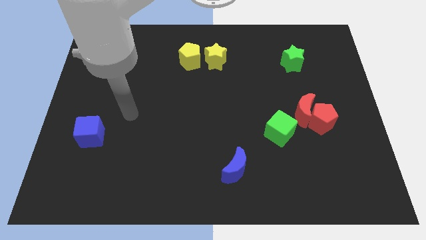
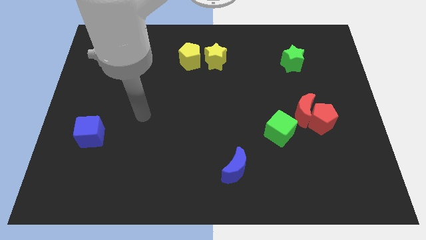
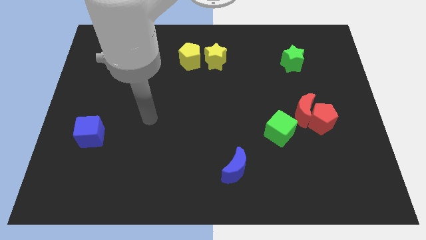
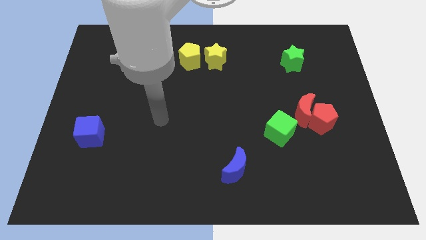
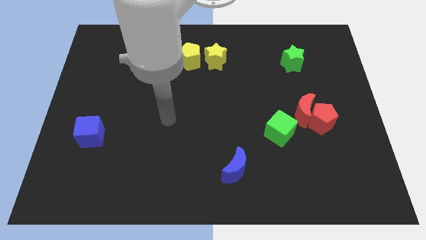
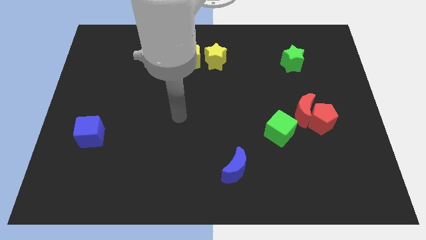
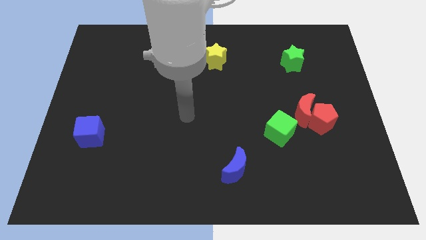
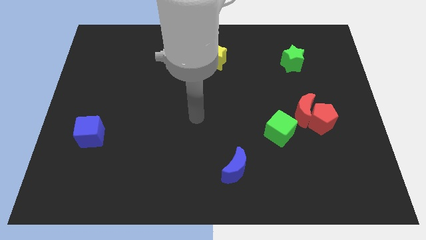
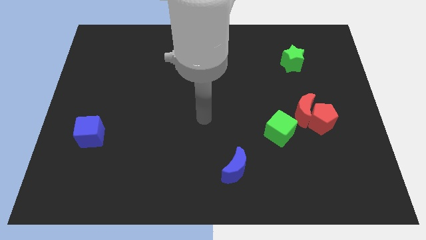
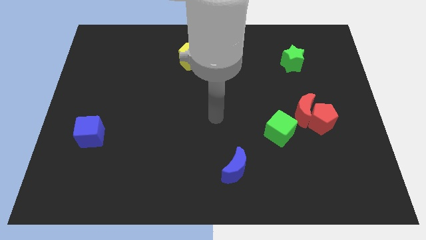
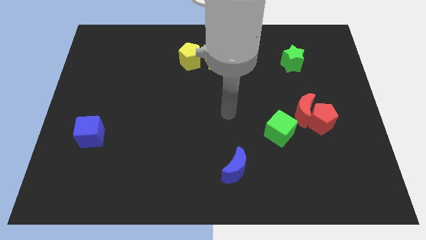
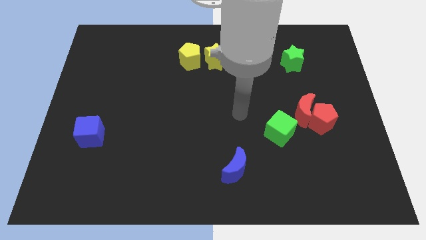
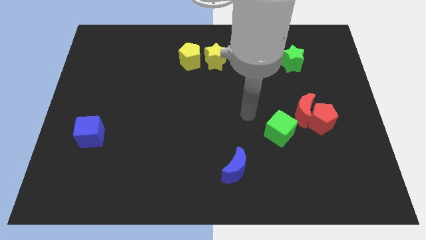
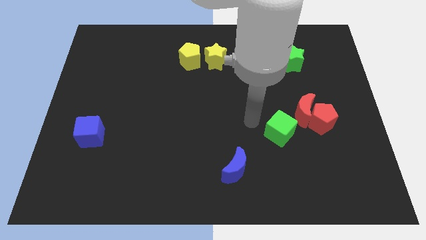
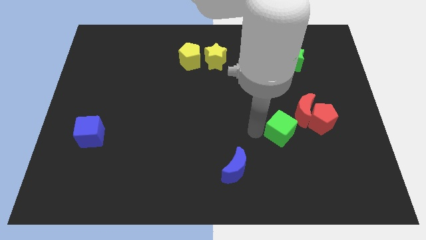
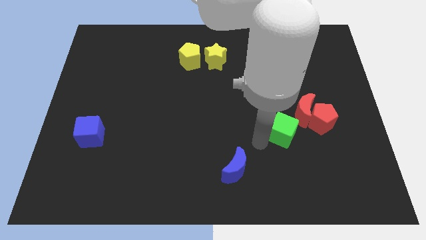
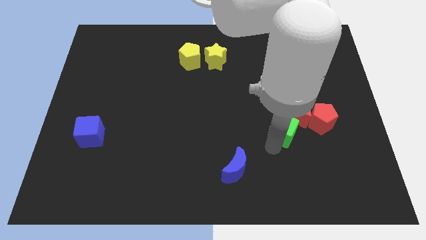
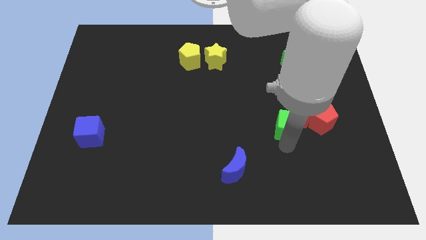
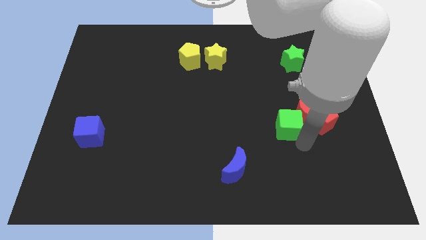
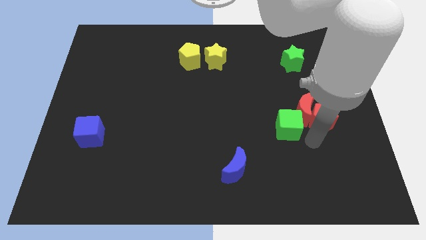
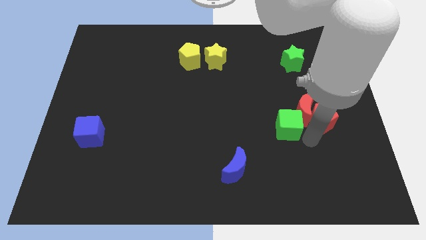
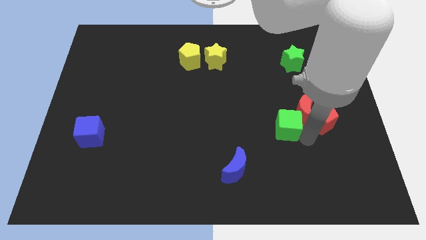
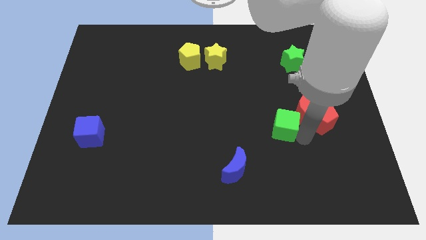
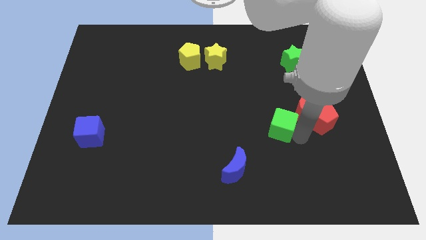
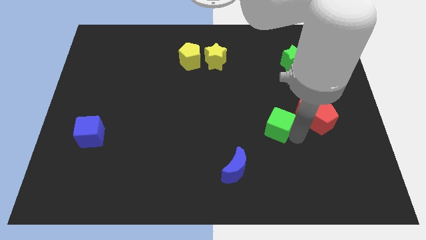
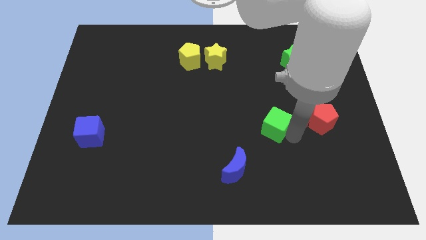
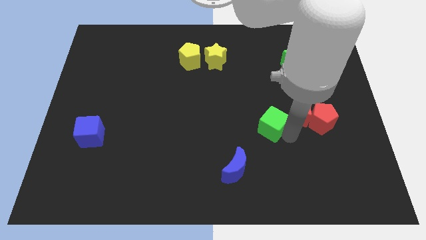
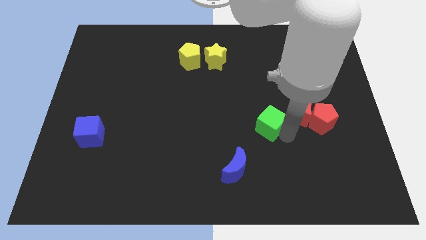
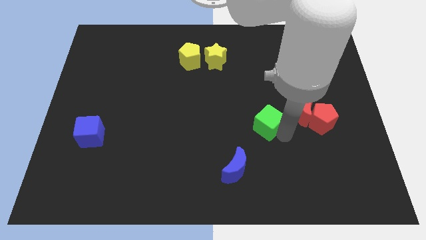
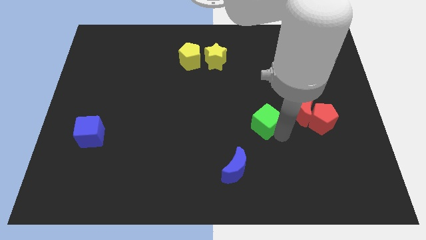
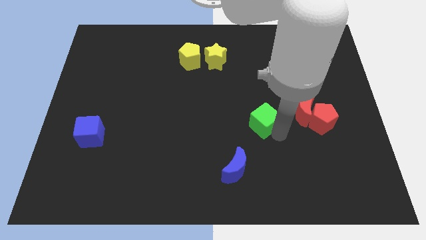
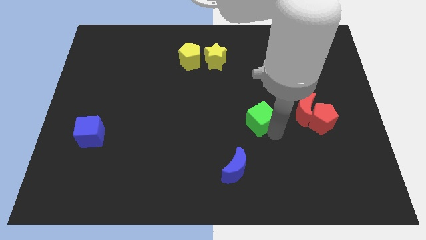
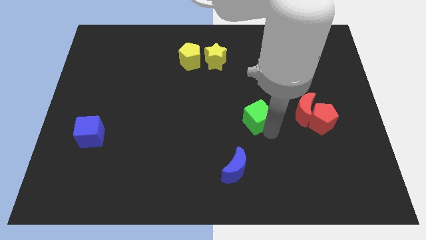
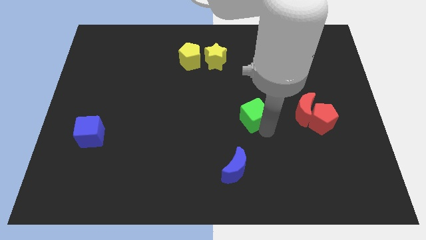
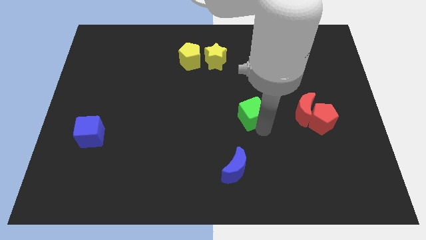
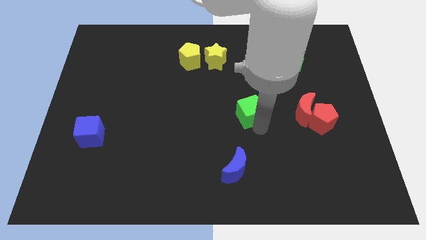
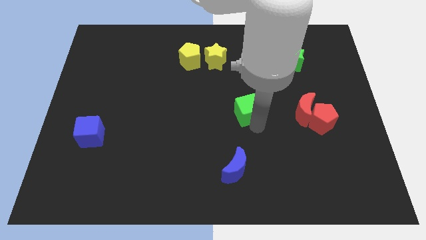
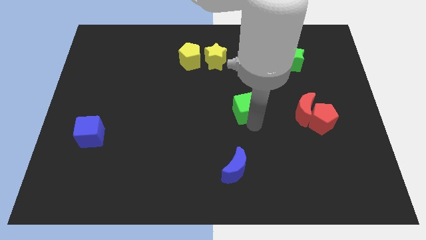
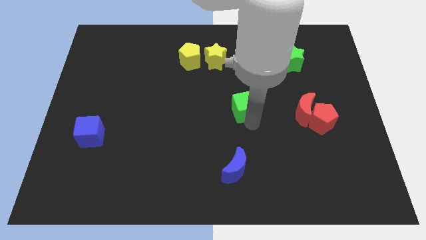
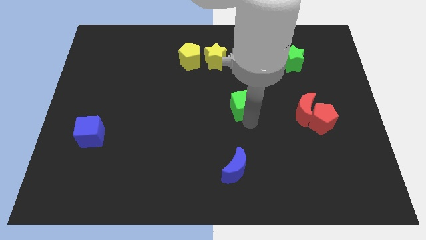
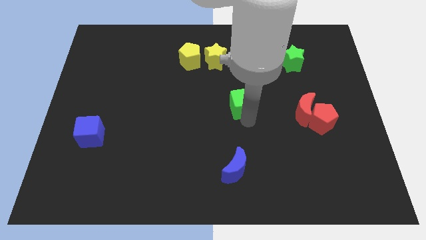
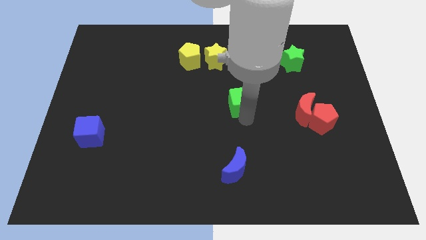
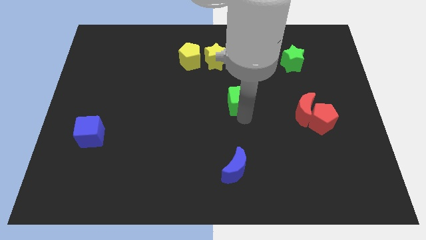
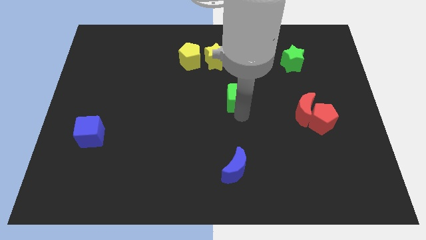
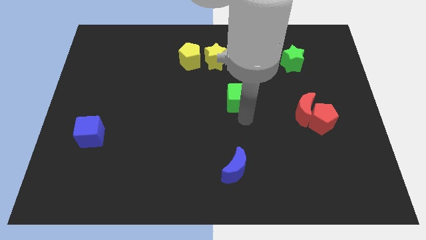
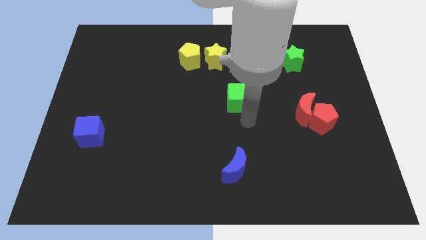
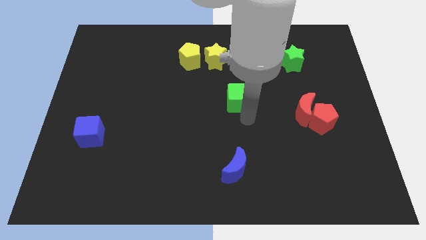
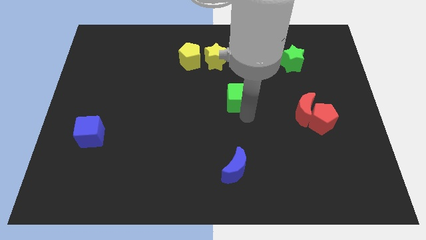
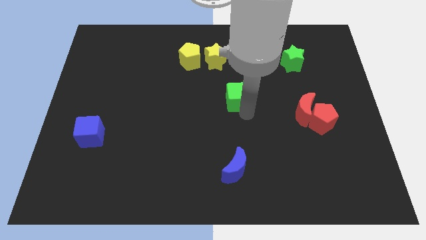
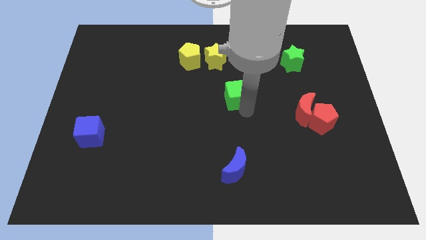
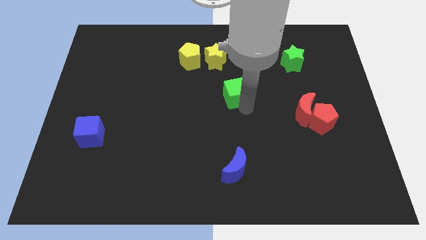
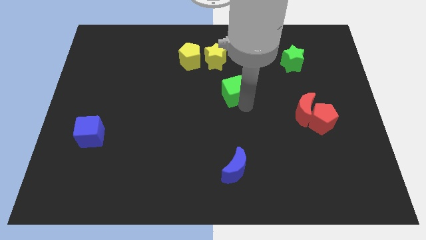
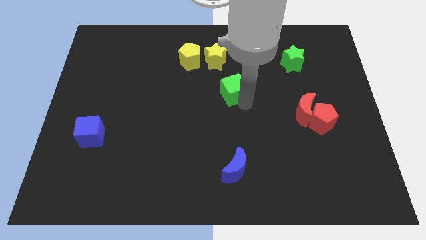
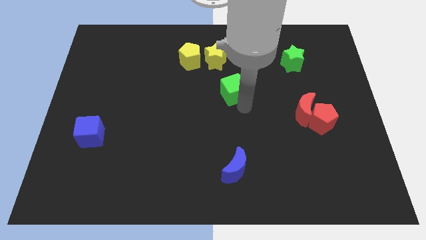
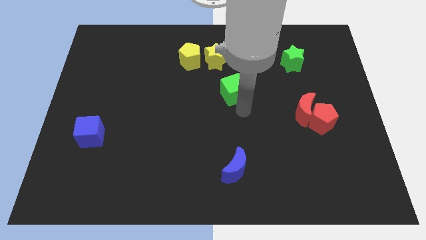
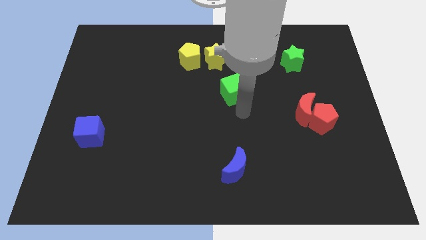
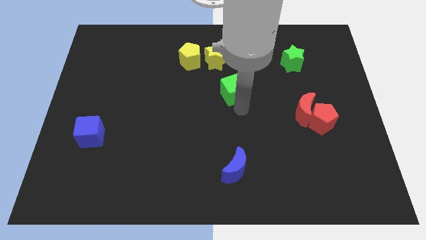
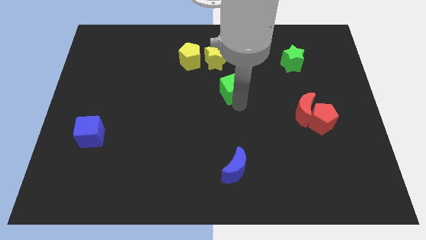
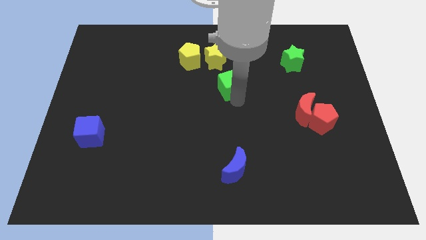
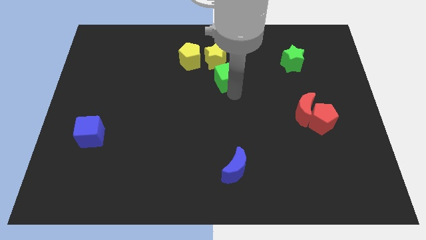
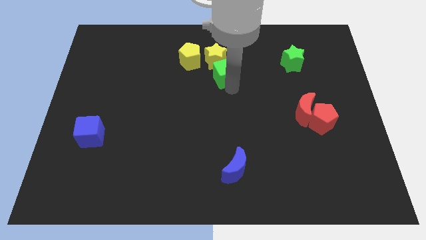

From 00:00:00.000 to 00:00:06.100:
put the green cube to the yellow star

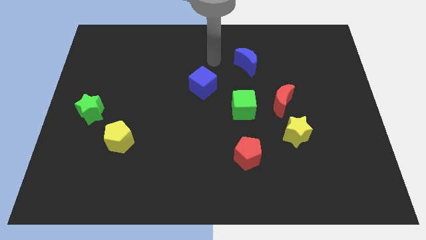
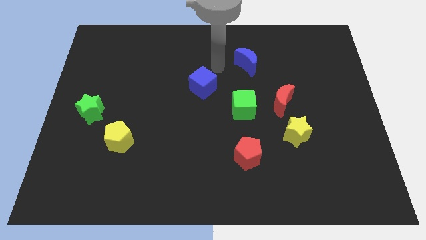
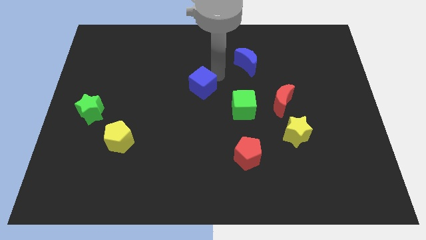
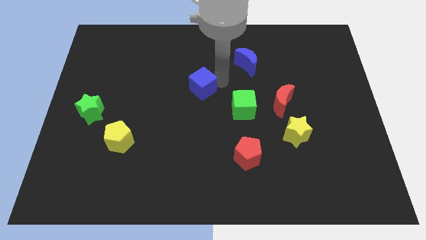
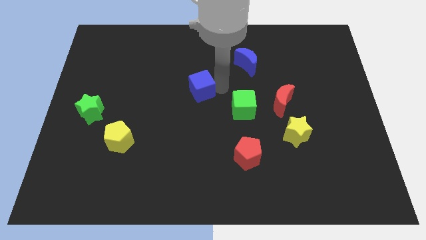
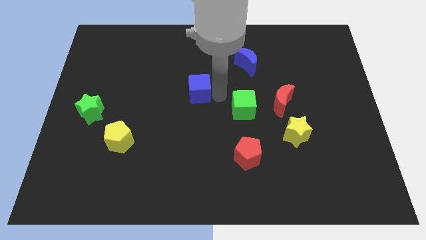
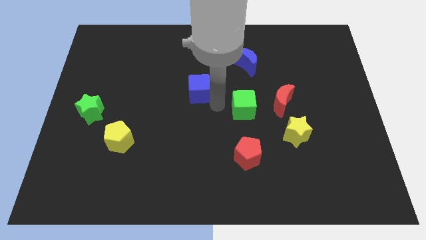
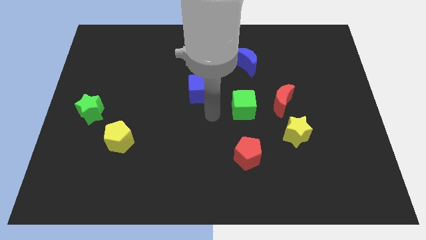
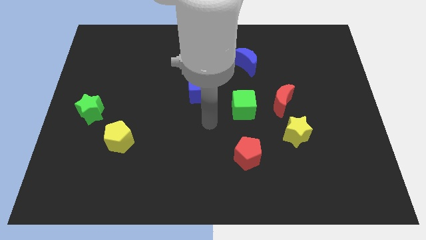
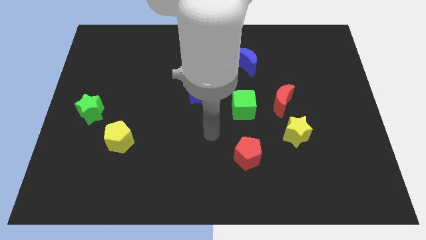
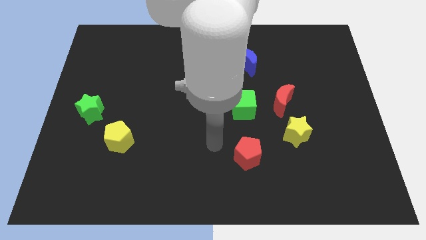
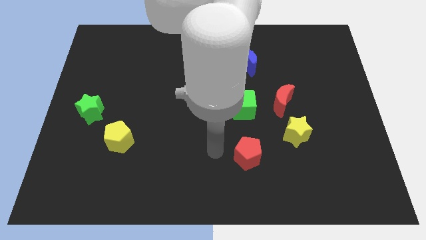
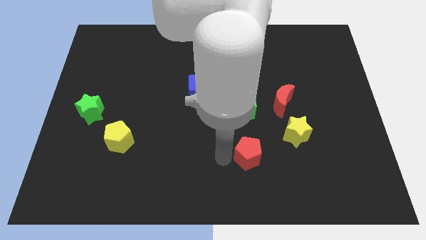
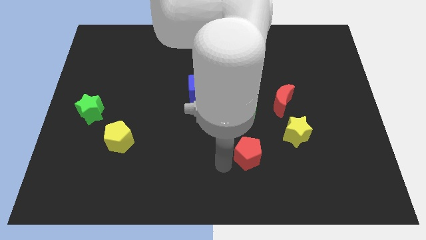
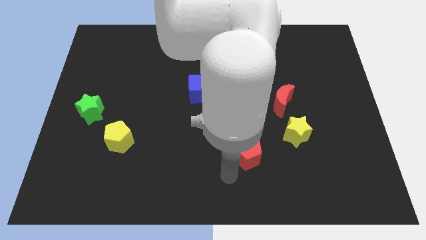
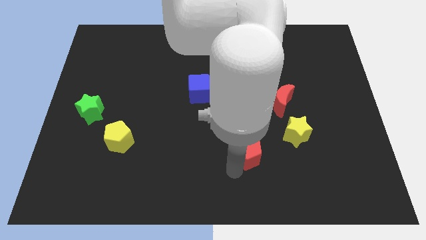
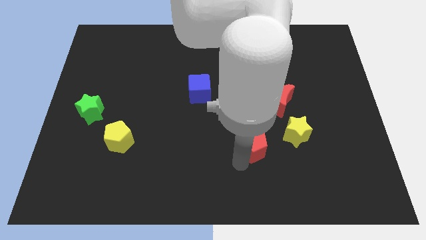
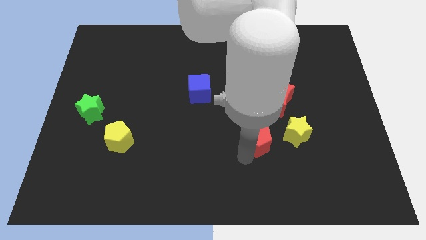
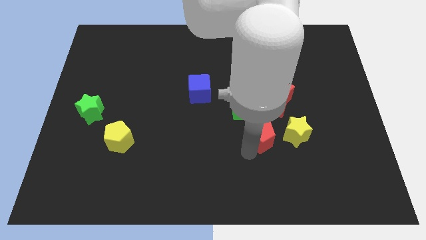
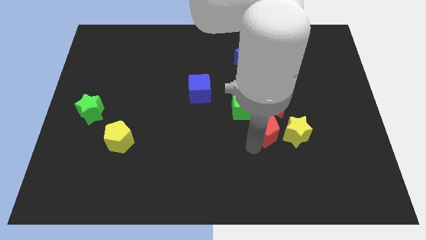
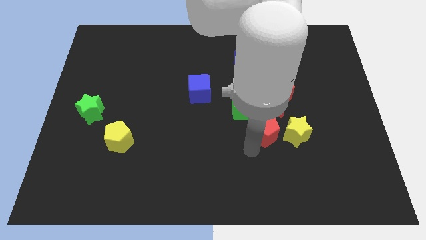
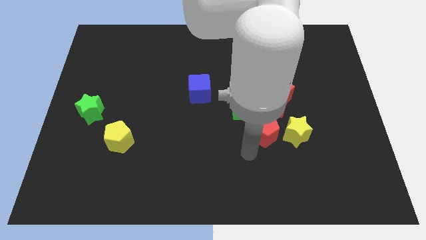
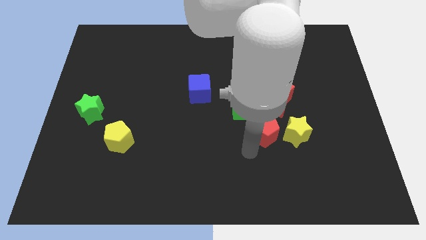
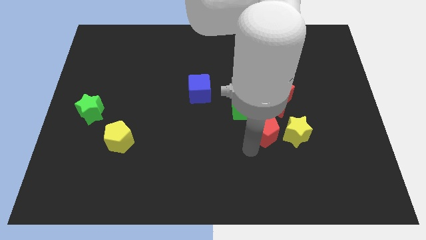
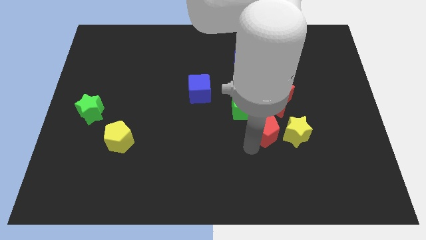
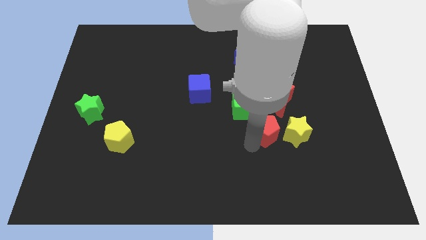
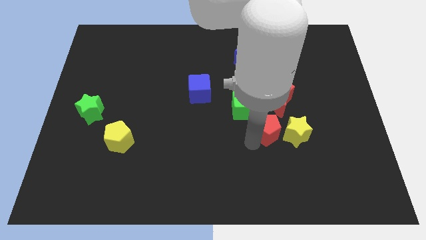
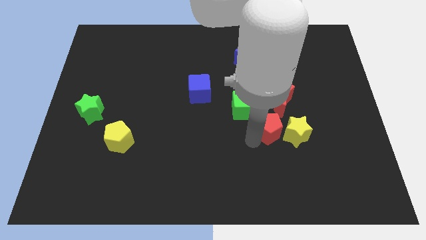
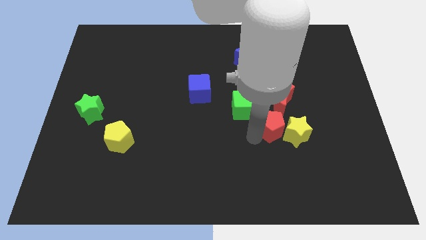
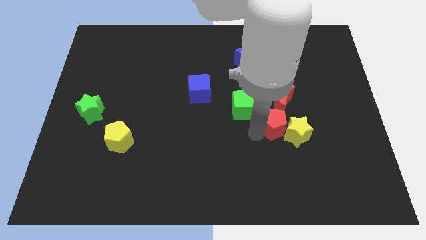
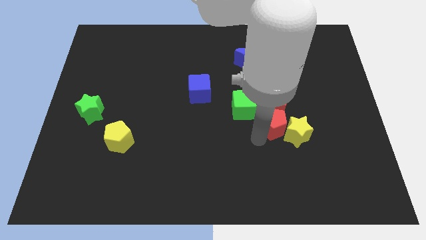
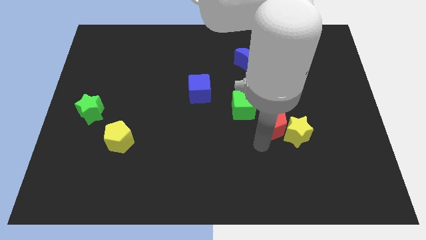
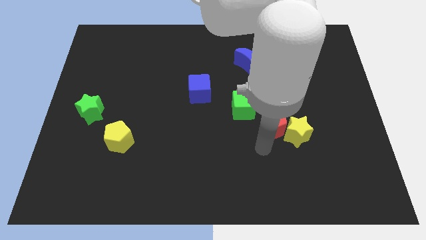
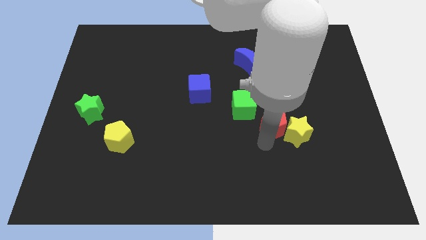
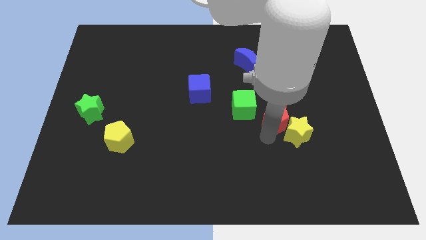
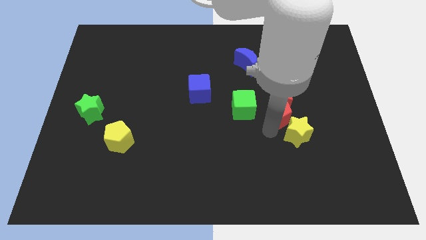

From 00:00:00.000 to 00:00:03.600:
put the red pentagon close to the red moon
